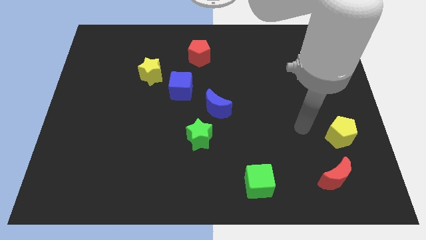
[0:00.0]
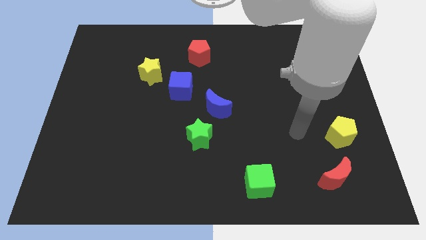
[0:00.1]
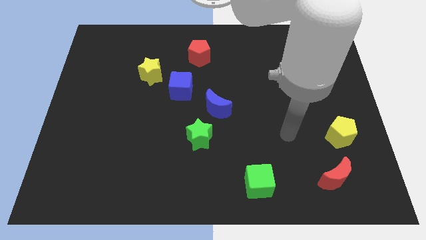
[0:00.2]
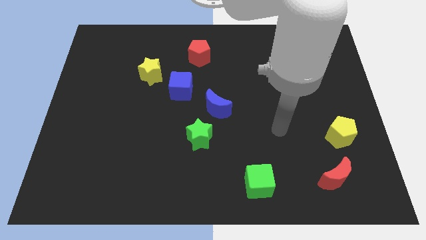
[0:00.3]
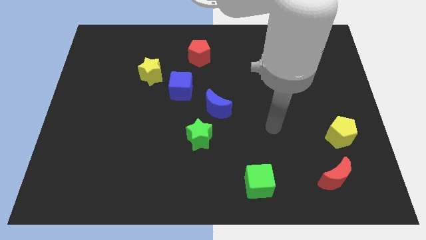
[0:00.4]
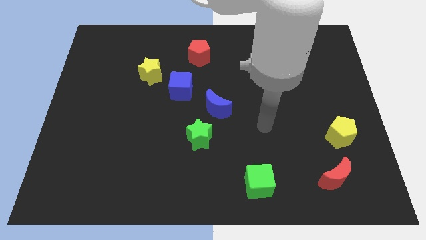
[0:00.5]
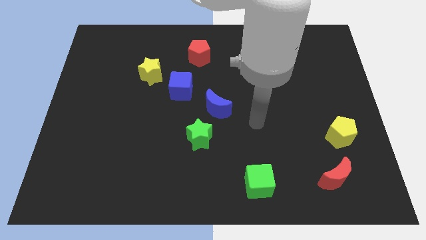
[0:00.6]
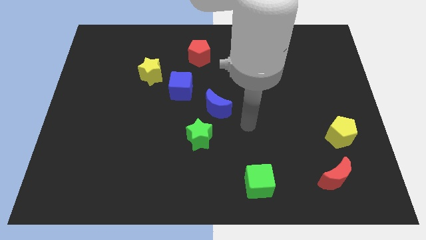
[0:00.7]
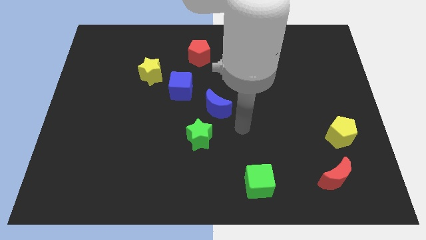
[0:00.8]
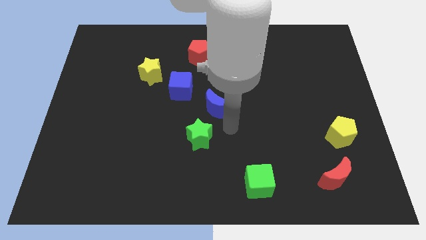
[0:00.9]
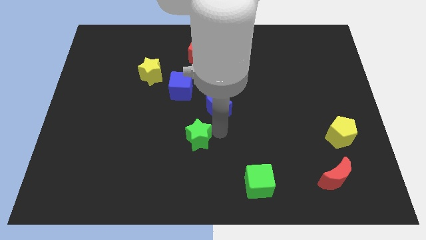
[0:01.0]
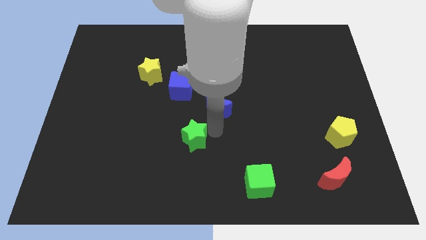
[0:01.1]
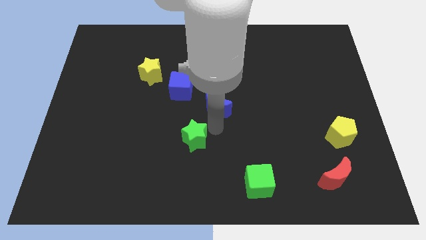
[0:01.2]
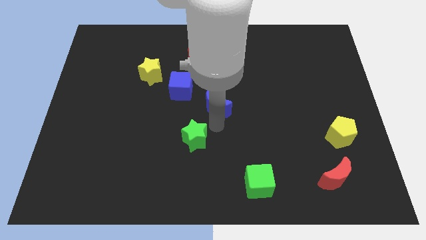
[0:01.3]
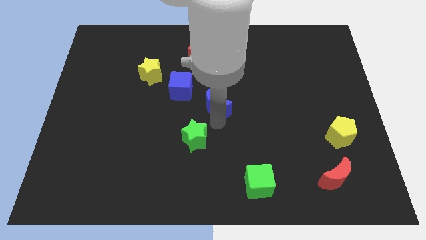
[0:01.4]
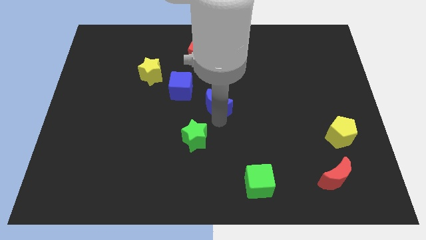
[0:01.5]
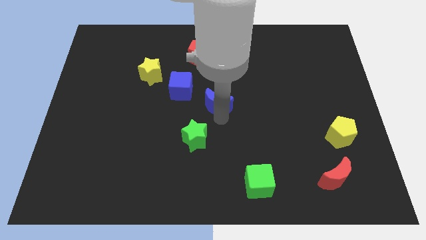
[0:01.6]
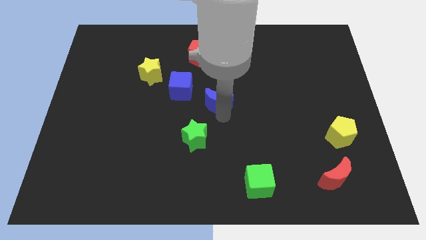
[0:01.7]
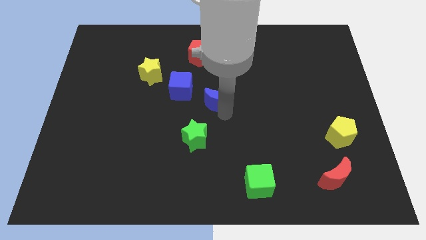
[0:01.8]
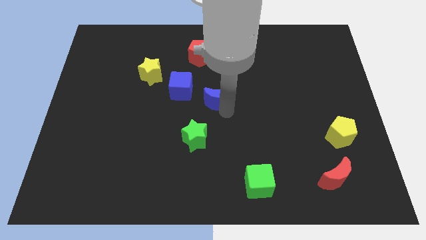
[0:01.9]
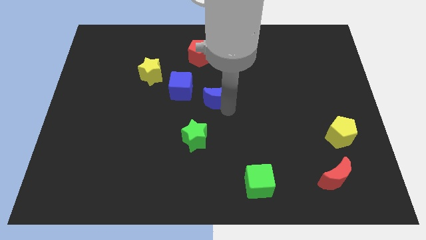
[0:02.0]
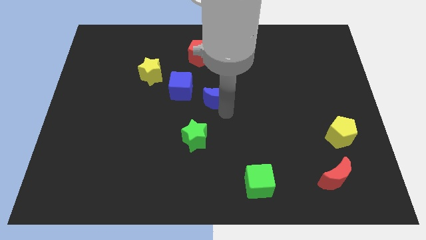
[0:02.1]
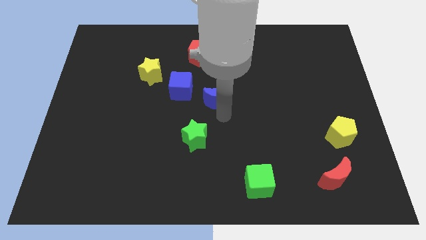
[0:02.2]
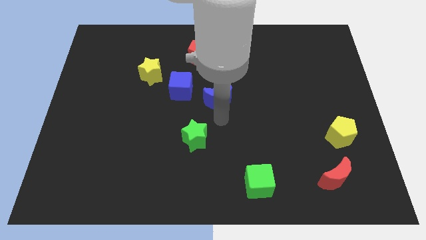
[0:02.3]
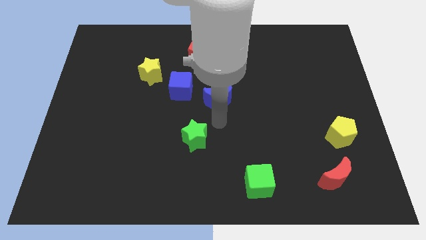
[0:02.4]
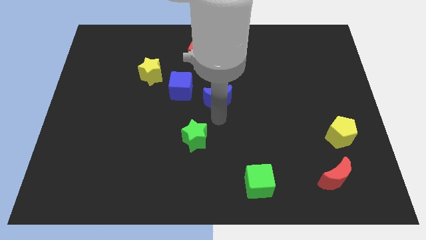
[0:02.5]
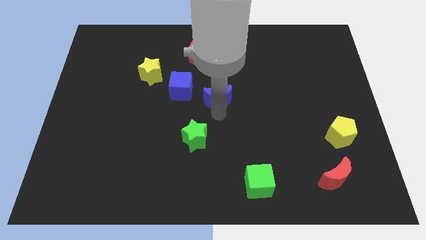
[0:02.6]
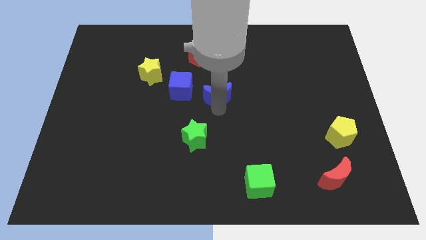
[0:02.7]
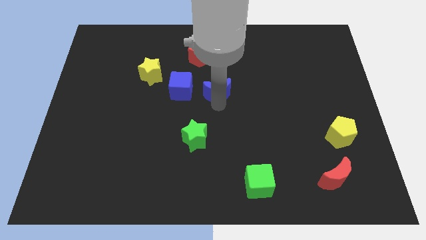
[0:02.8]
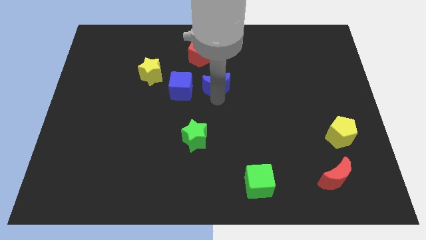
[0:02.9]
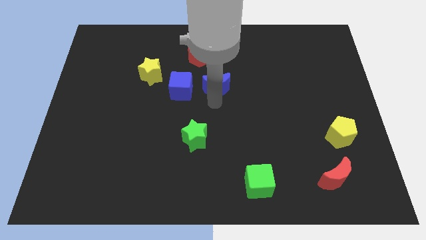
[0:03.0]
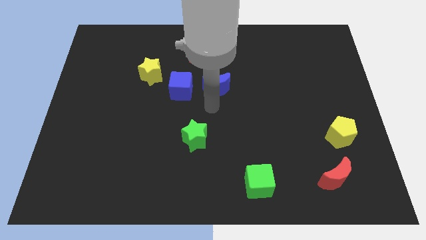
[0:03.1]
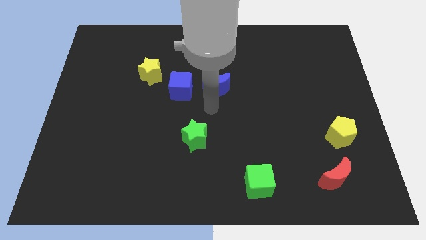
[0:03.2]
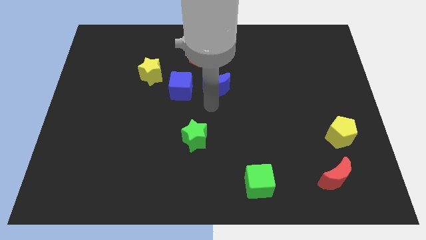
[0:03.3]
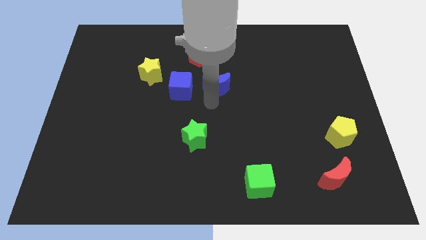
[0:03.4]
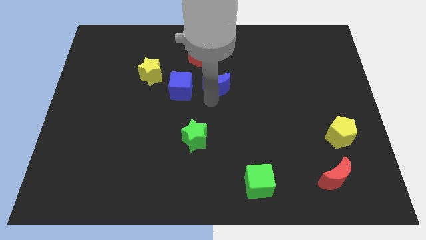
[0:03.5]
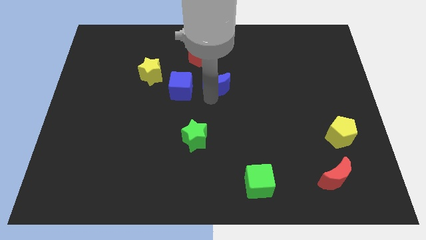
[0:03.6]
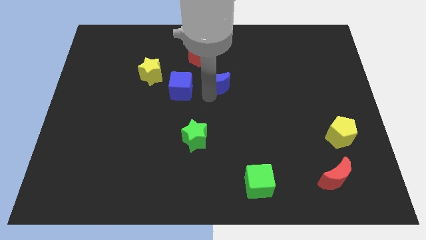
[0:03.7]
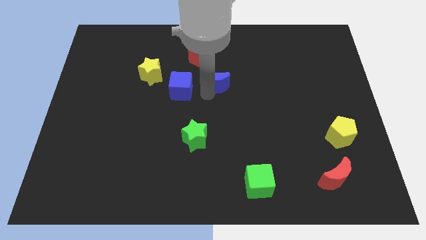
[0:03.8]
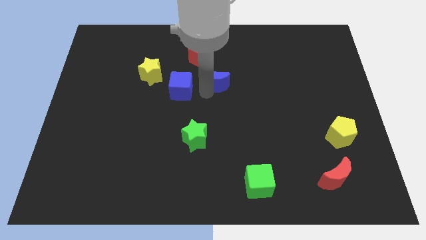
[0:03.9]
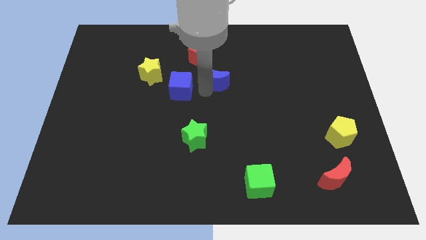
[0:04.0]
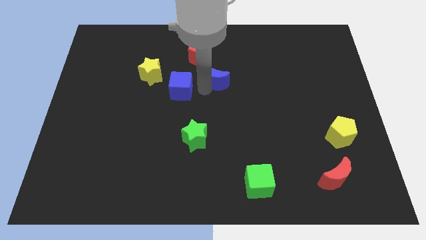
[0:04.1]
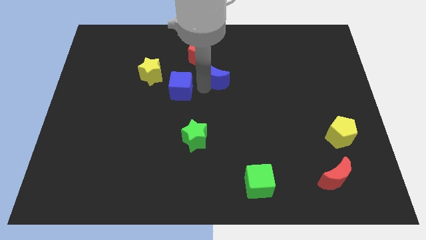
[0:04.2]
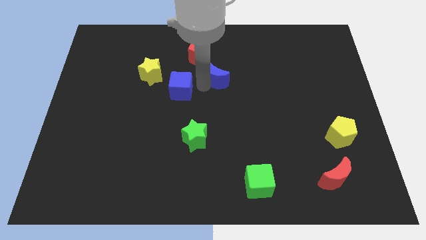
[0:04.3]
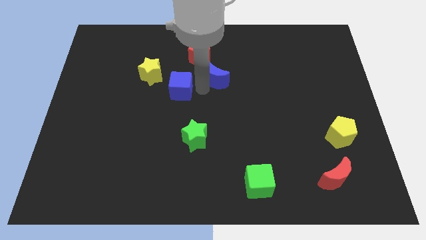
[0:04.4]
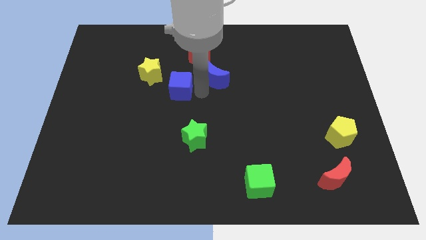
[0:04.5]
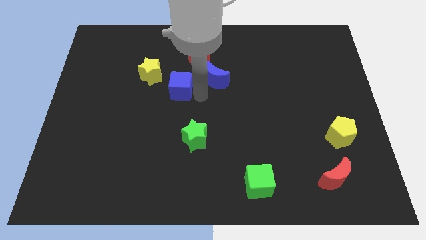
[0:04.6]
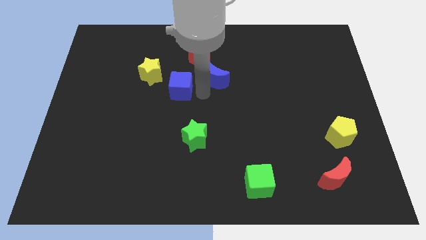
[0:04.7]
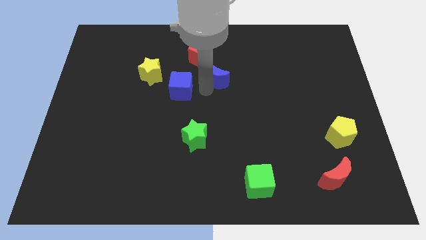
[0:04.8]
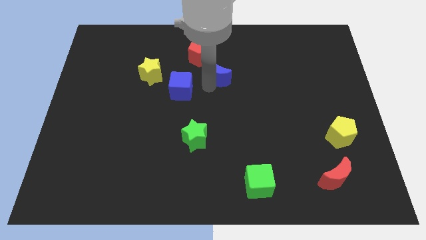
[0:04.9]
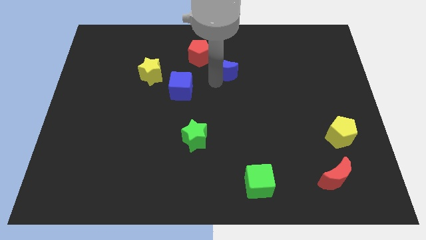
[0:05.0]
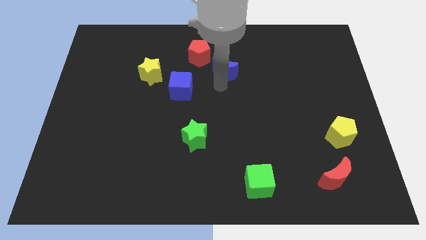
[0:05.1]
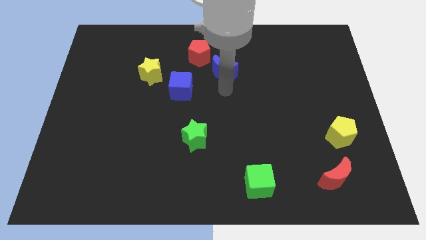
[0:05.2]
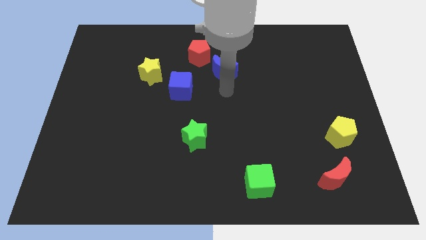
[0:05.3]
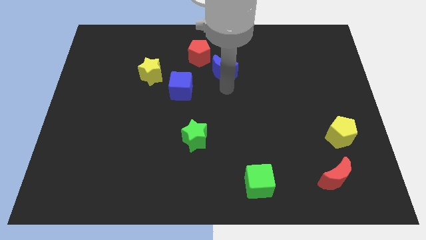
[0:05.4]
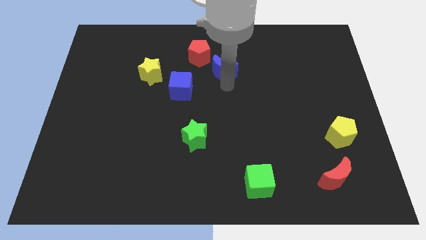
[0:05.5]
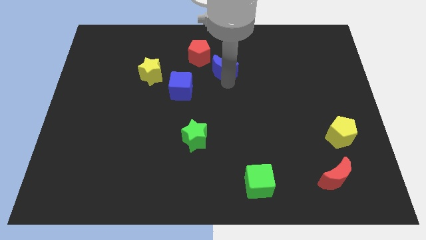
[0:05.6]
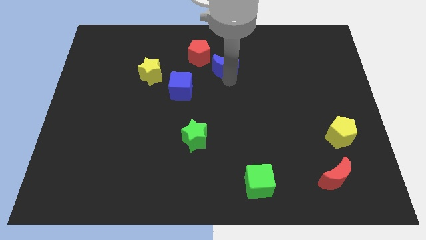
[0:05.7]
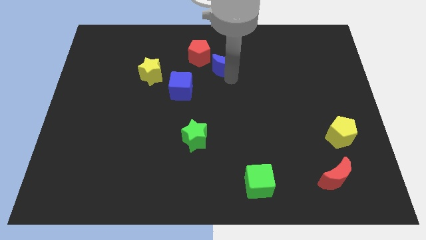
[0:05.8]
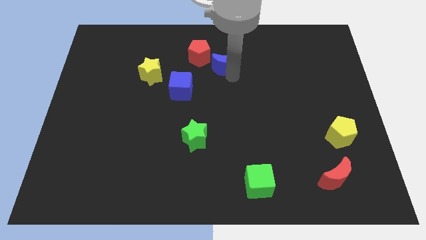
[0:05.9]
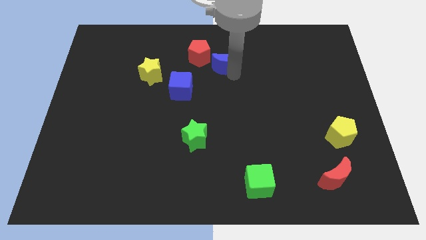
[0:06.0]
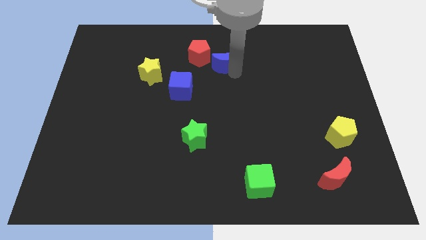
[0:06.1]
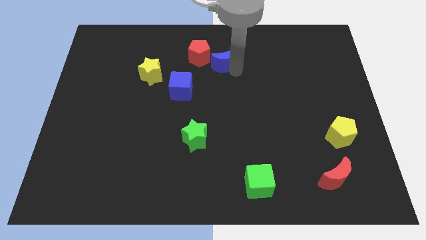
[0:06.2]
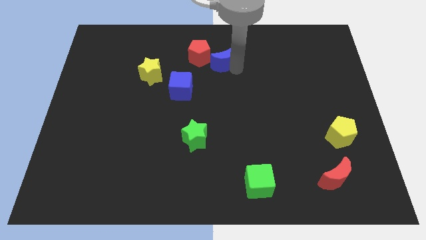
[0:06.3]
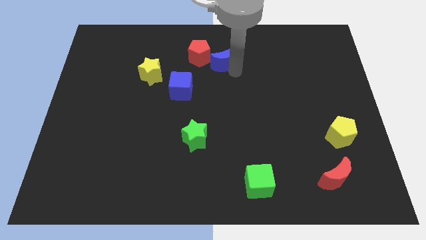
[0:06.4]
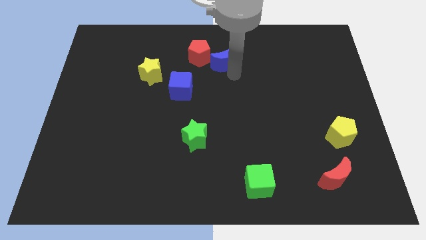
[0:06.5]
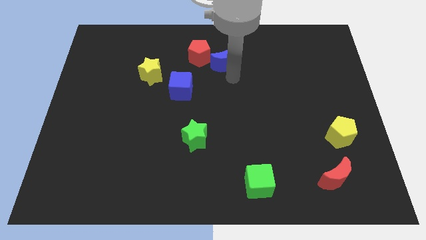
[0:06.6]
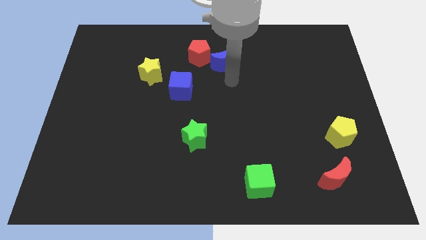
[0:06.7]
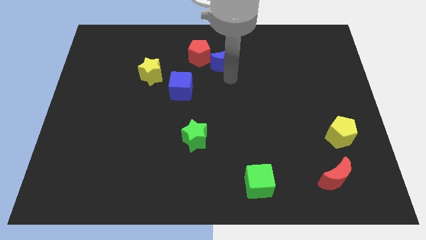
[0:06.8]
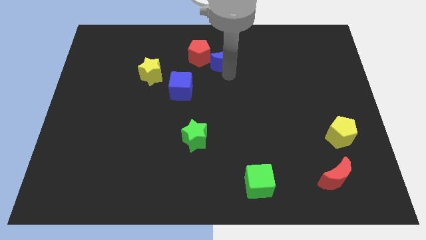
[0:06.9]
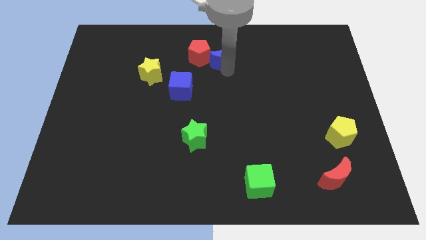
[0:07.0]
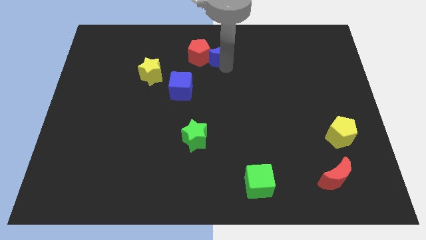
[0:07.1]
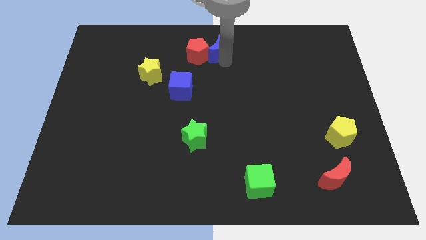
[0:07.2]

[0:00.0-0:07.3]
push the blue moon to the towards your base
